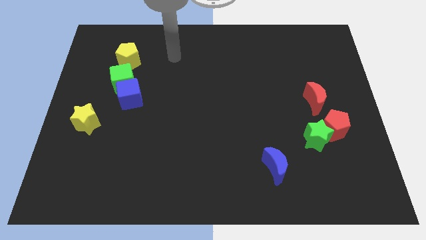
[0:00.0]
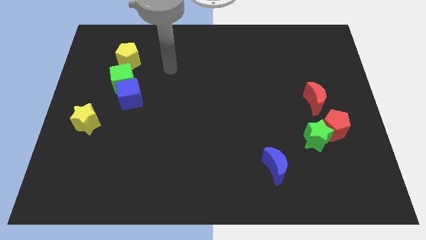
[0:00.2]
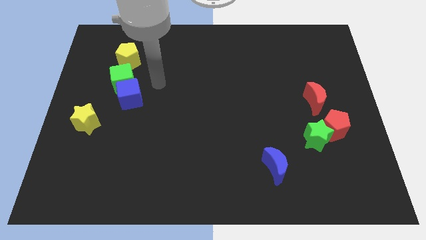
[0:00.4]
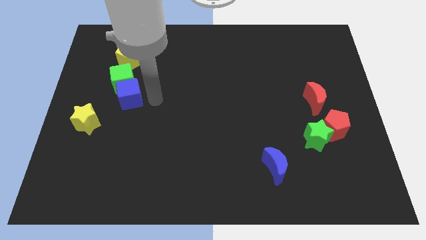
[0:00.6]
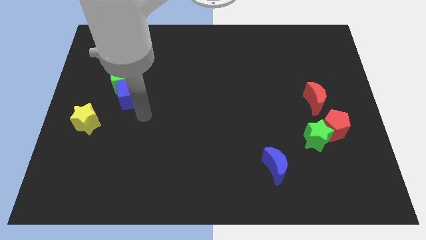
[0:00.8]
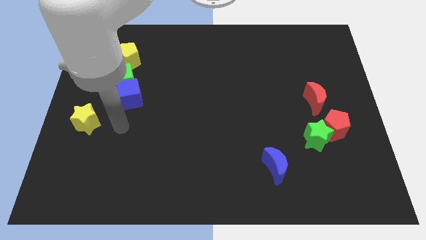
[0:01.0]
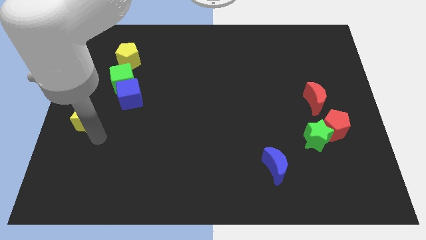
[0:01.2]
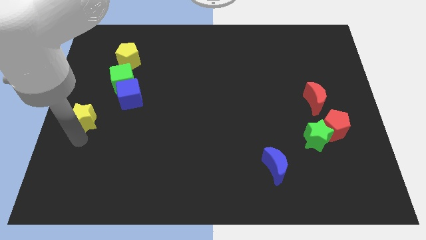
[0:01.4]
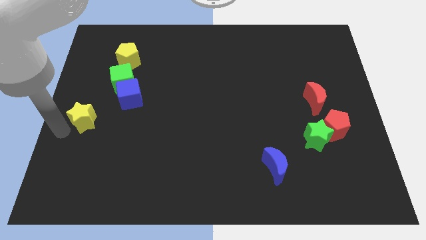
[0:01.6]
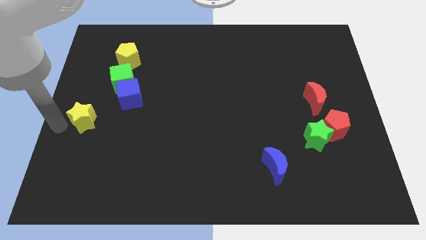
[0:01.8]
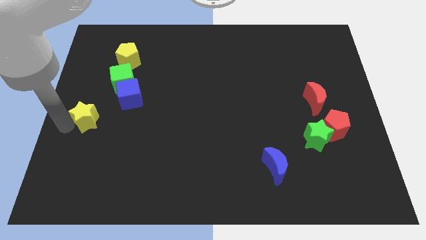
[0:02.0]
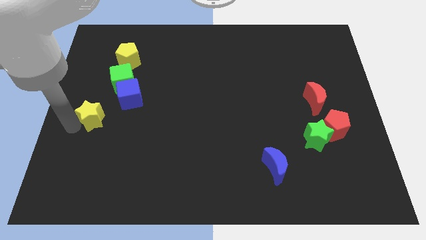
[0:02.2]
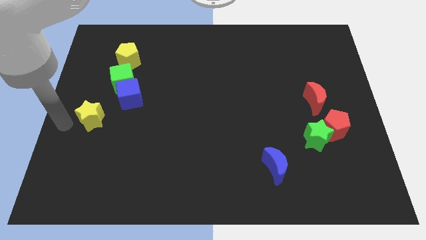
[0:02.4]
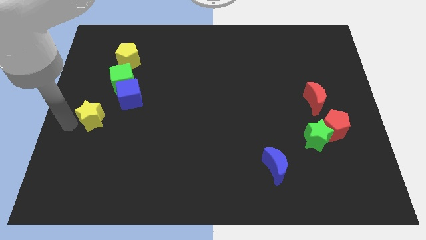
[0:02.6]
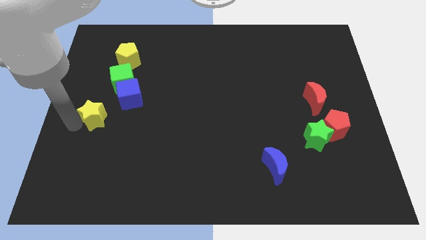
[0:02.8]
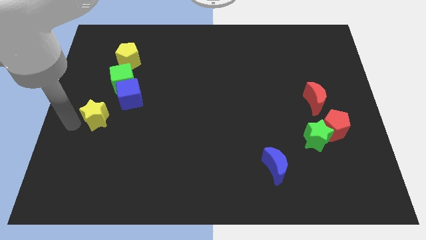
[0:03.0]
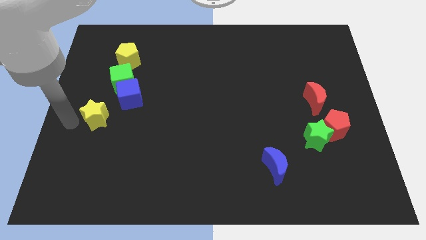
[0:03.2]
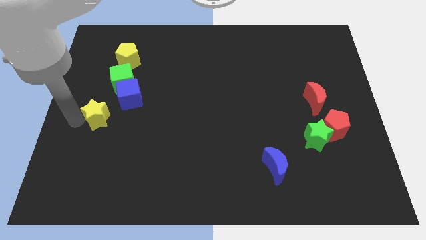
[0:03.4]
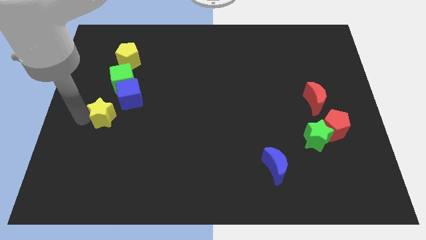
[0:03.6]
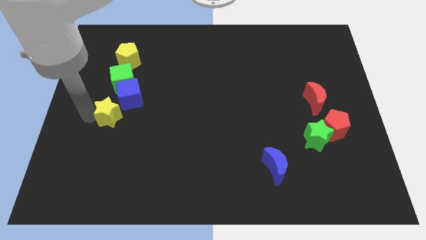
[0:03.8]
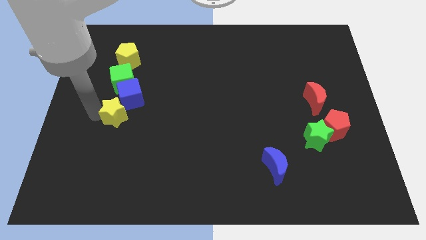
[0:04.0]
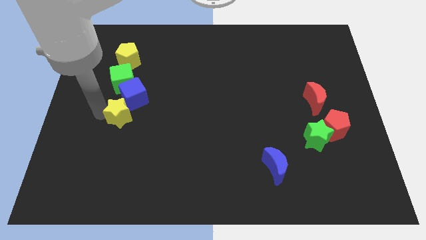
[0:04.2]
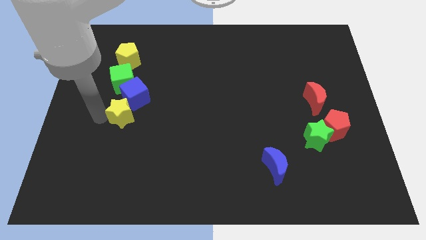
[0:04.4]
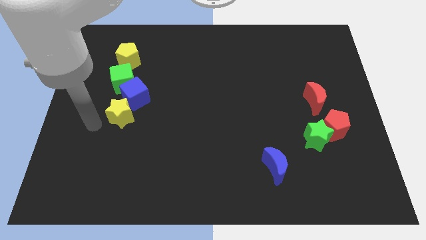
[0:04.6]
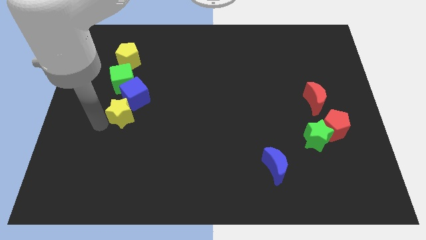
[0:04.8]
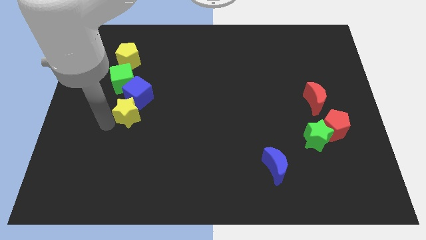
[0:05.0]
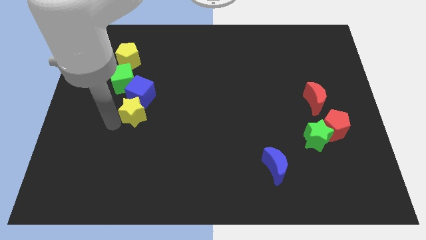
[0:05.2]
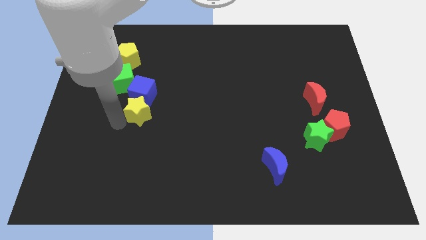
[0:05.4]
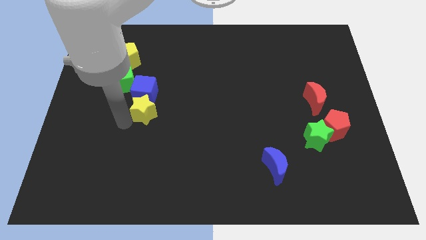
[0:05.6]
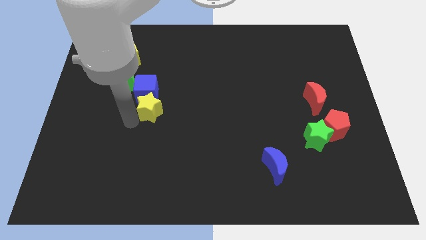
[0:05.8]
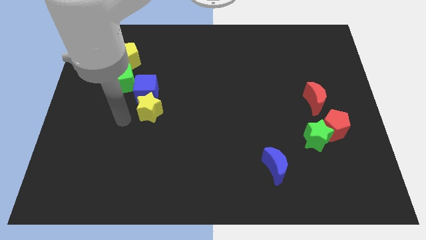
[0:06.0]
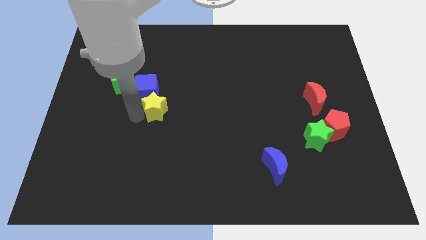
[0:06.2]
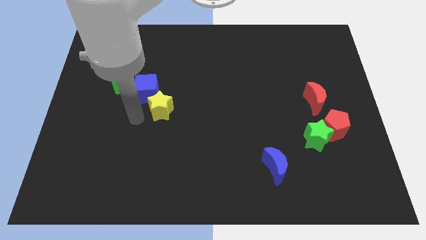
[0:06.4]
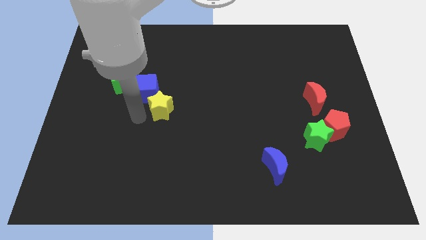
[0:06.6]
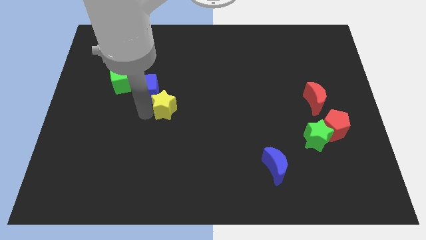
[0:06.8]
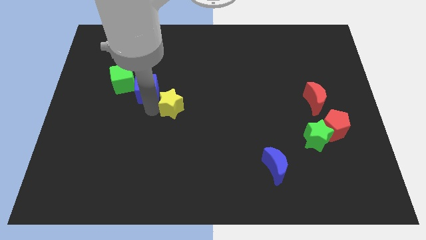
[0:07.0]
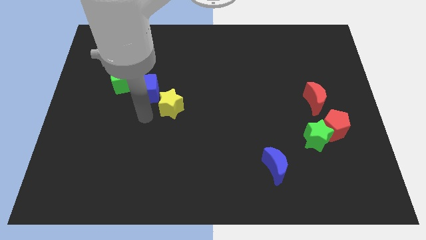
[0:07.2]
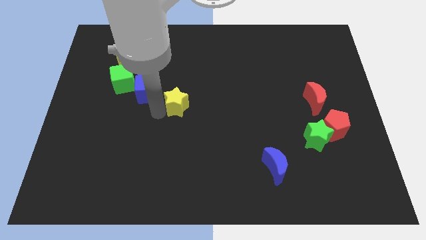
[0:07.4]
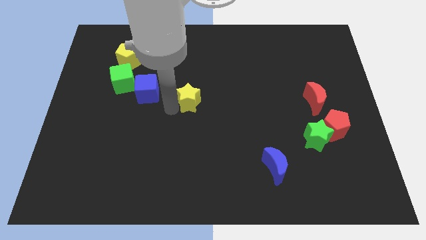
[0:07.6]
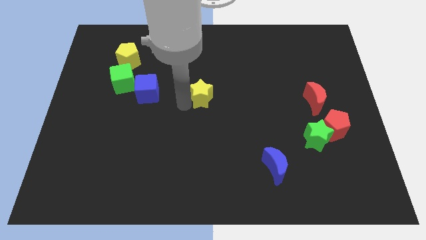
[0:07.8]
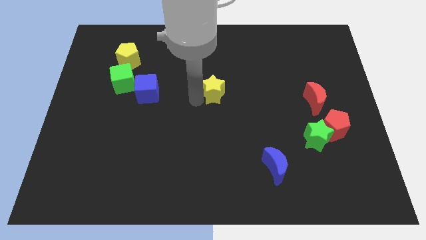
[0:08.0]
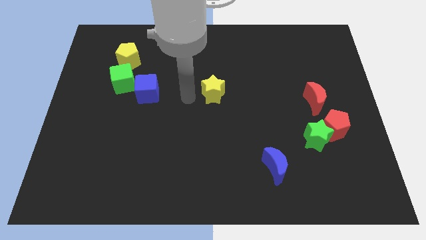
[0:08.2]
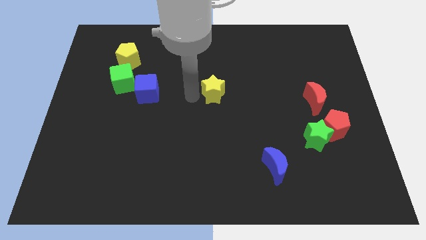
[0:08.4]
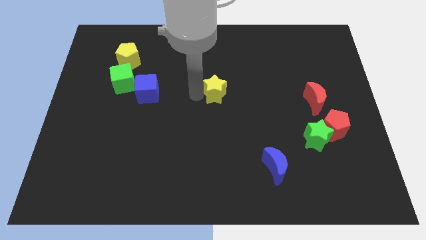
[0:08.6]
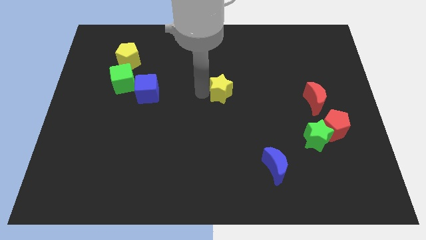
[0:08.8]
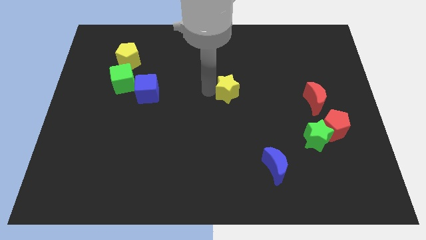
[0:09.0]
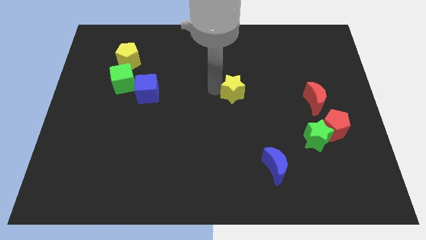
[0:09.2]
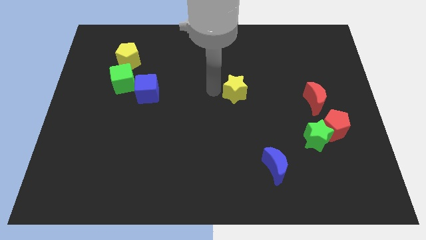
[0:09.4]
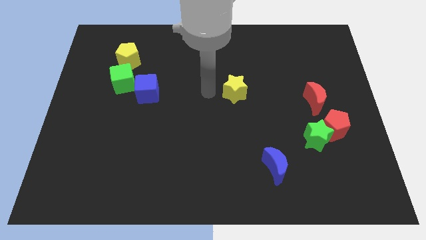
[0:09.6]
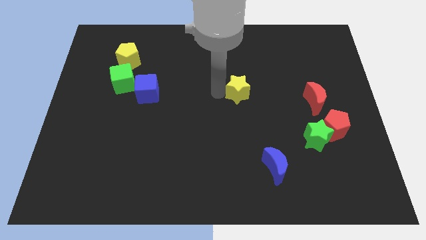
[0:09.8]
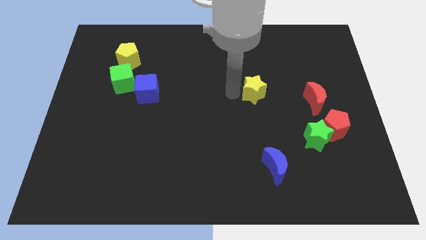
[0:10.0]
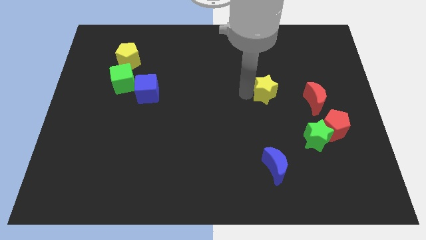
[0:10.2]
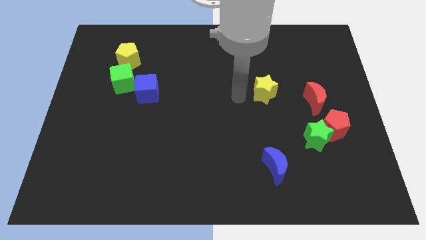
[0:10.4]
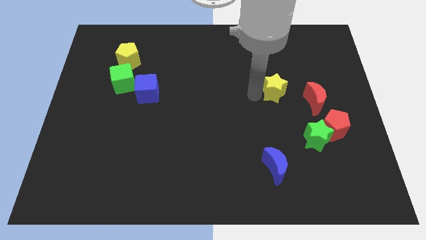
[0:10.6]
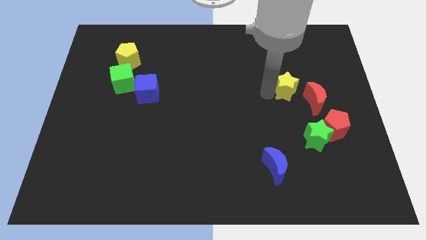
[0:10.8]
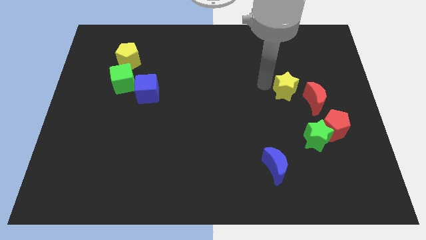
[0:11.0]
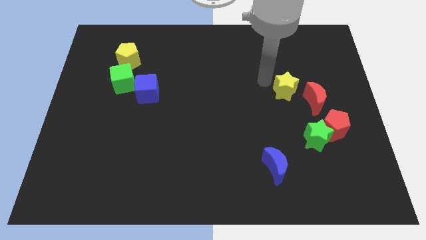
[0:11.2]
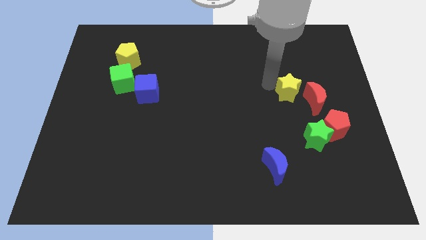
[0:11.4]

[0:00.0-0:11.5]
push the yellow star to the top side of the green star

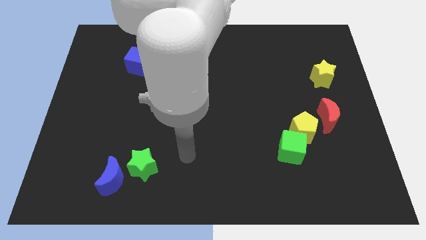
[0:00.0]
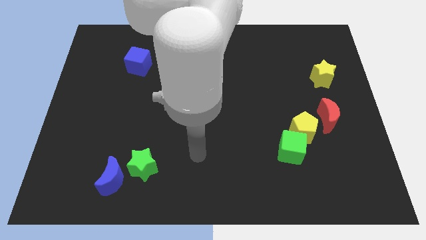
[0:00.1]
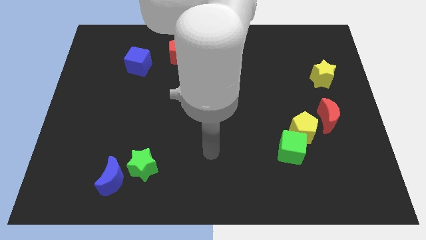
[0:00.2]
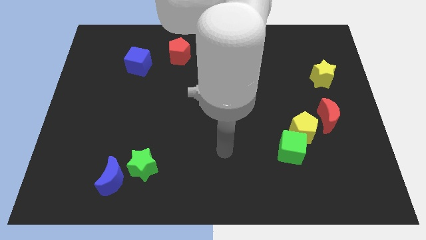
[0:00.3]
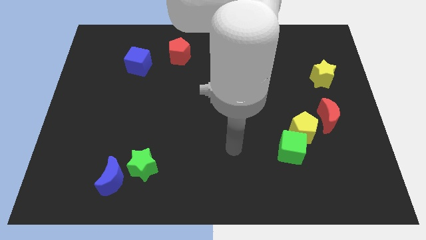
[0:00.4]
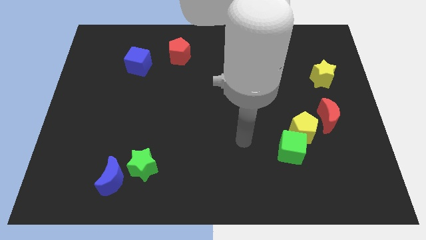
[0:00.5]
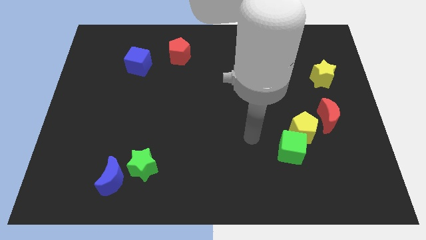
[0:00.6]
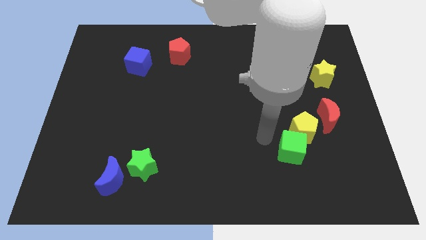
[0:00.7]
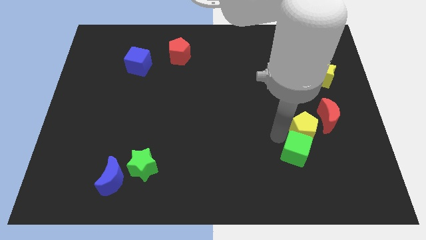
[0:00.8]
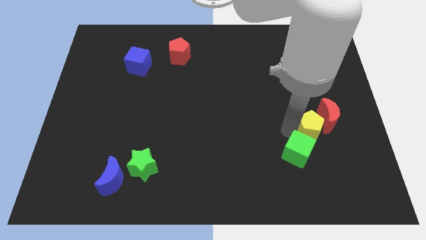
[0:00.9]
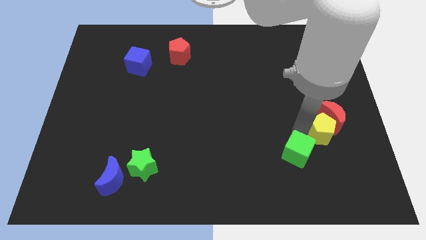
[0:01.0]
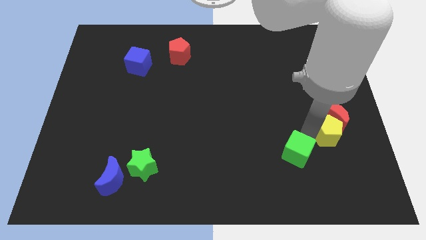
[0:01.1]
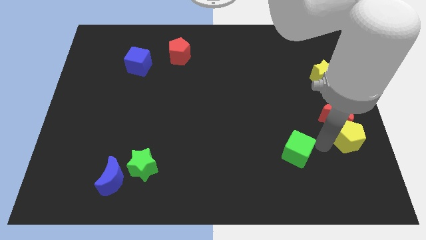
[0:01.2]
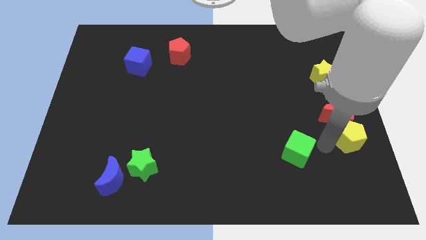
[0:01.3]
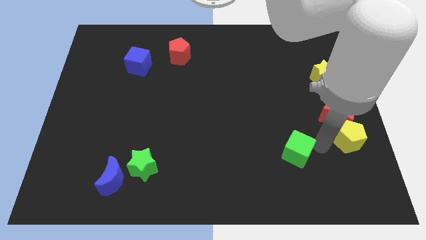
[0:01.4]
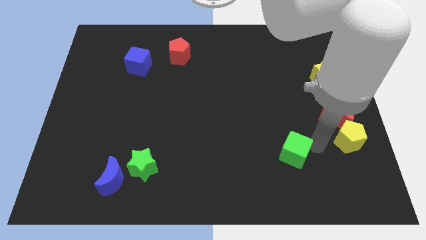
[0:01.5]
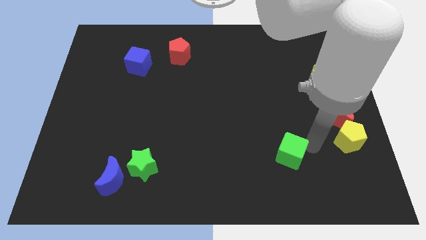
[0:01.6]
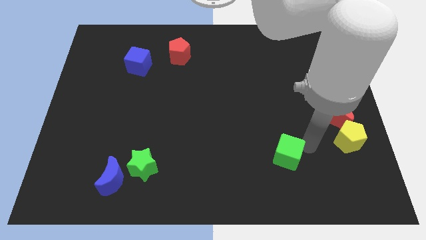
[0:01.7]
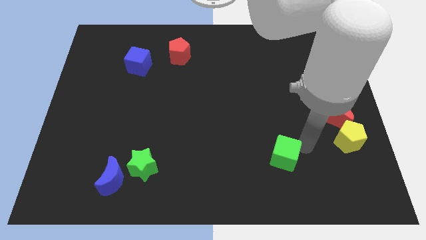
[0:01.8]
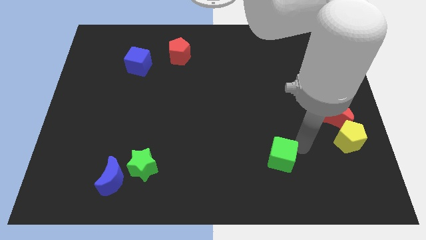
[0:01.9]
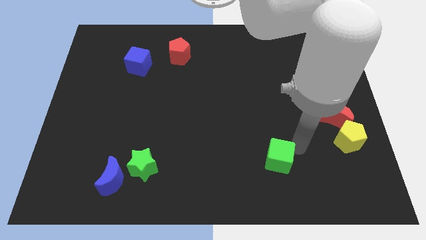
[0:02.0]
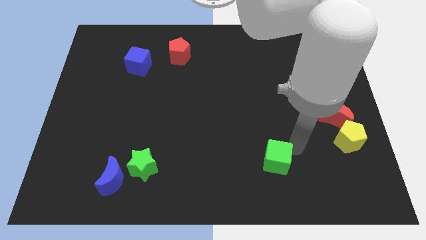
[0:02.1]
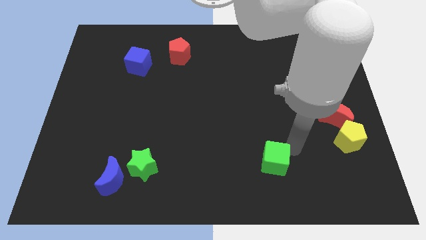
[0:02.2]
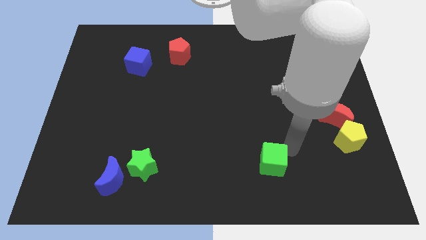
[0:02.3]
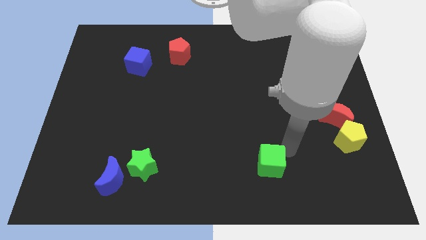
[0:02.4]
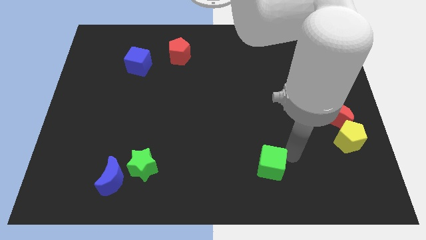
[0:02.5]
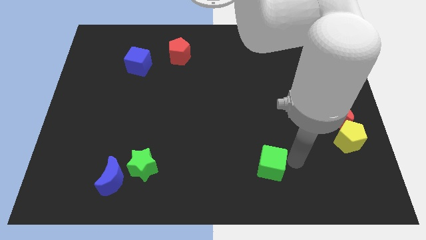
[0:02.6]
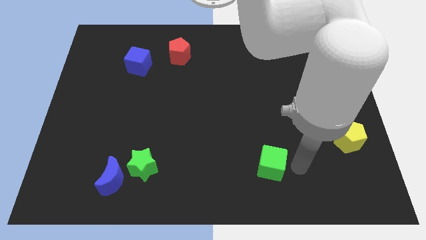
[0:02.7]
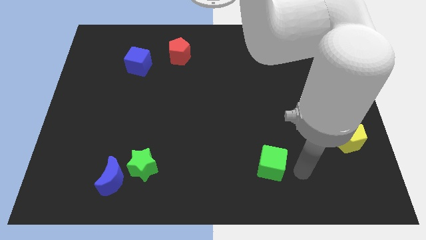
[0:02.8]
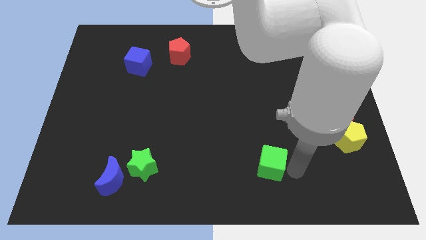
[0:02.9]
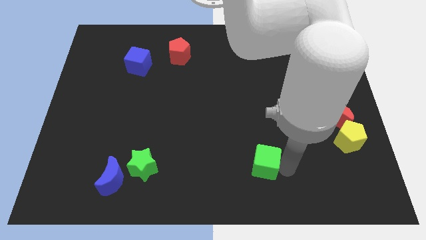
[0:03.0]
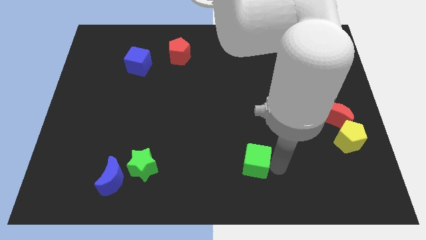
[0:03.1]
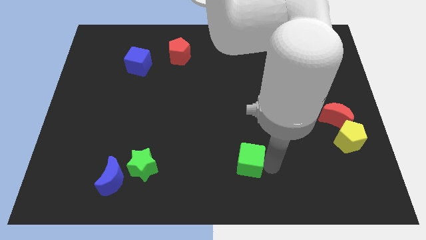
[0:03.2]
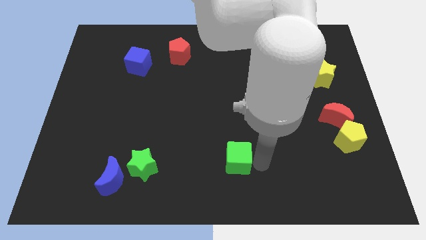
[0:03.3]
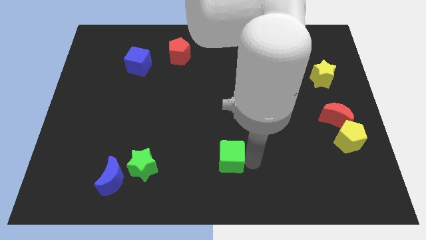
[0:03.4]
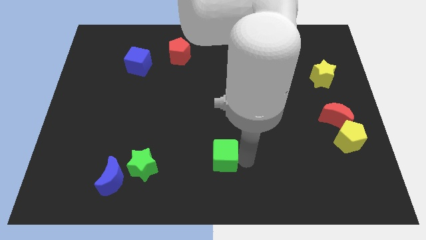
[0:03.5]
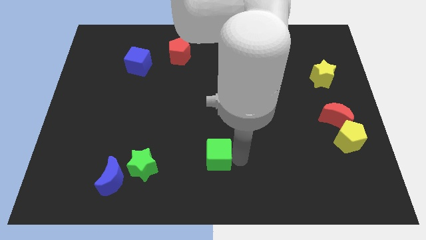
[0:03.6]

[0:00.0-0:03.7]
push the green cube right of the green star
